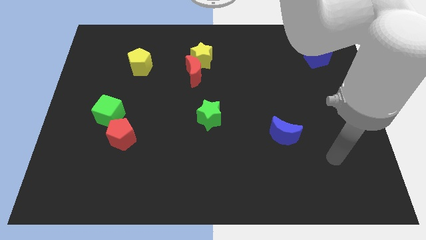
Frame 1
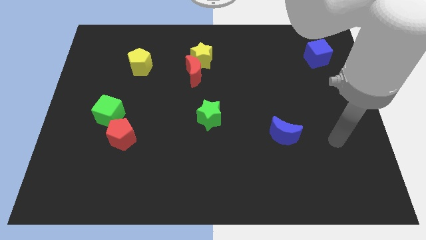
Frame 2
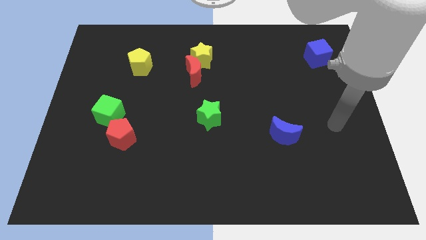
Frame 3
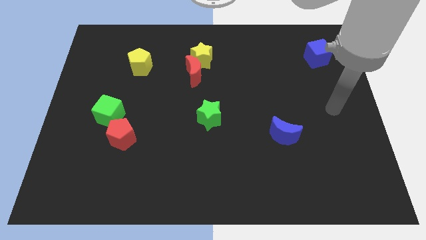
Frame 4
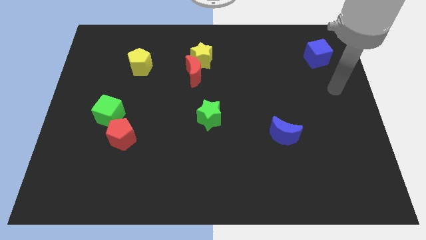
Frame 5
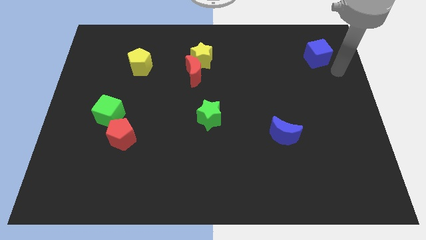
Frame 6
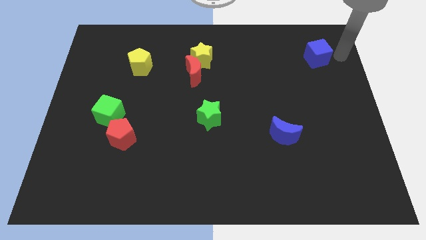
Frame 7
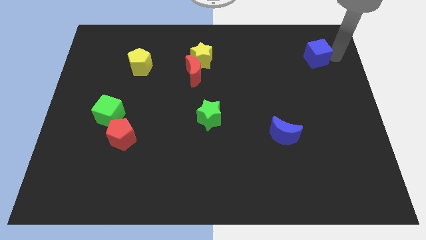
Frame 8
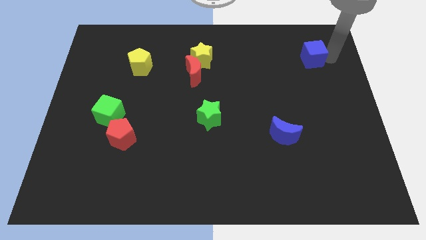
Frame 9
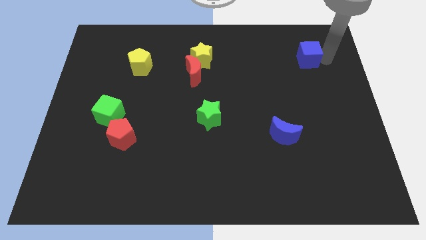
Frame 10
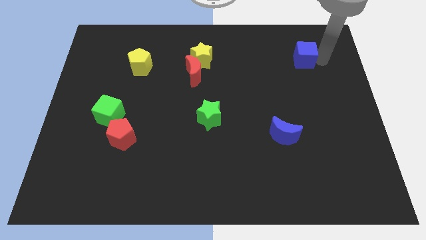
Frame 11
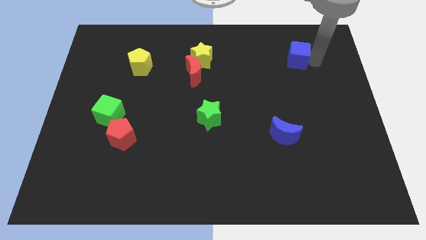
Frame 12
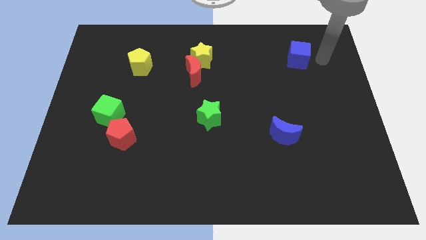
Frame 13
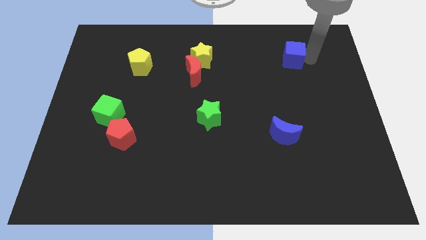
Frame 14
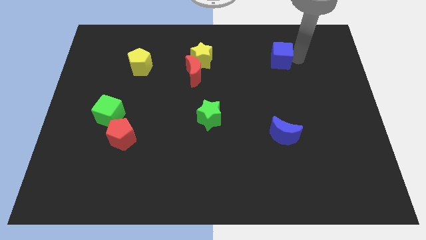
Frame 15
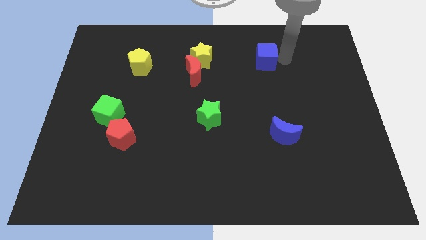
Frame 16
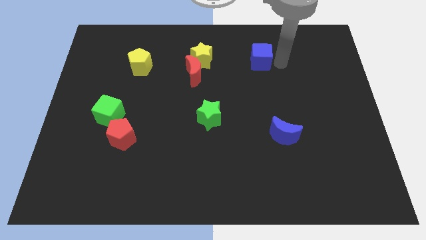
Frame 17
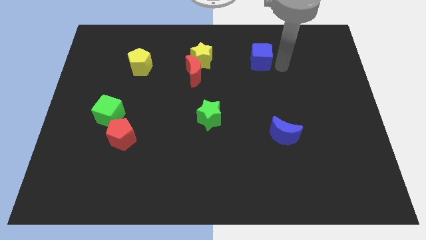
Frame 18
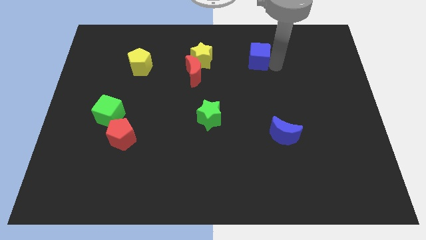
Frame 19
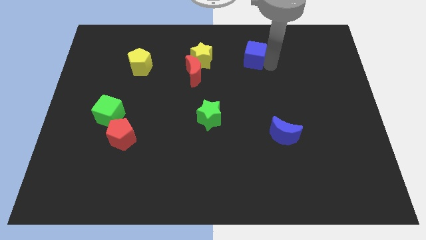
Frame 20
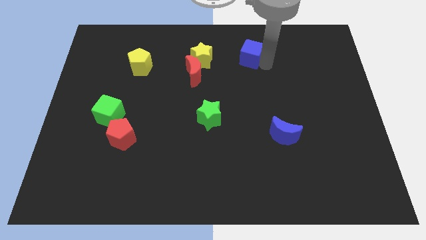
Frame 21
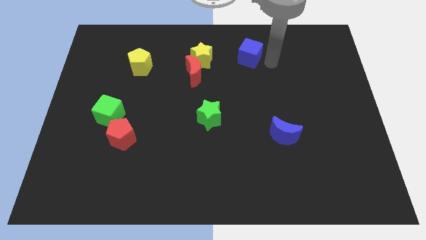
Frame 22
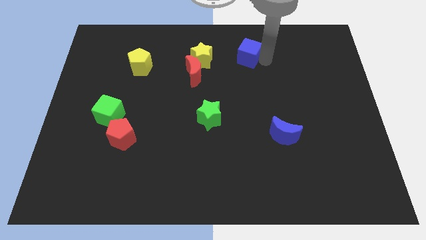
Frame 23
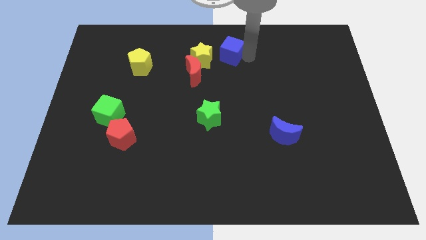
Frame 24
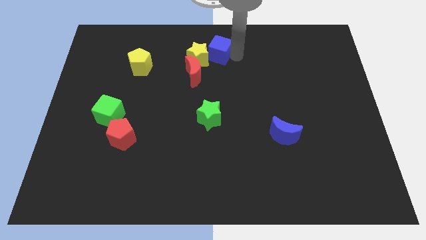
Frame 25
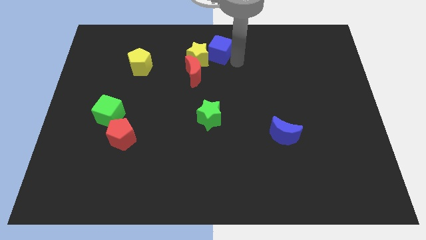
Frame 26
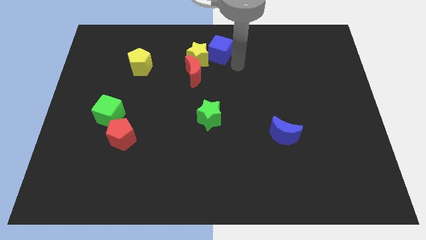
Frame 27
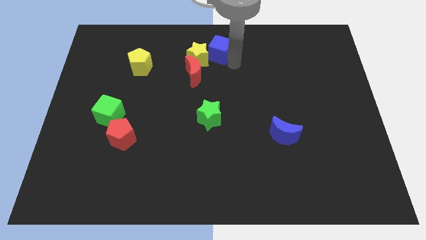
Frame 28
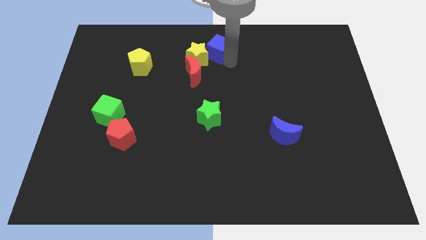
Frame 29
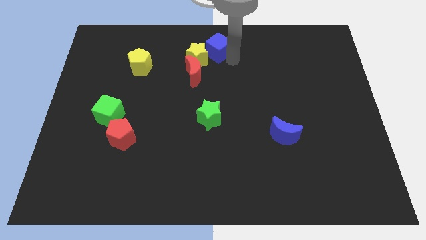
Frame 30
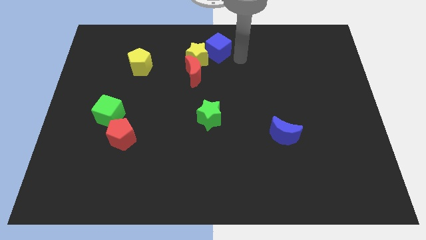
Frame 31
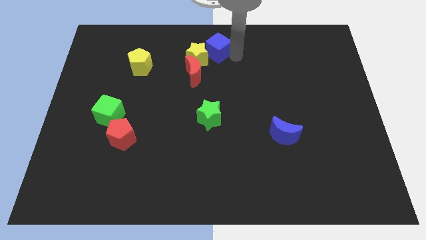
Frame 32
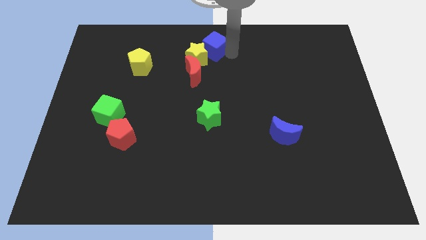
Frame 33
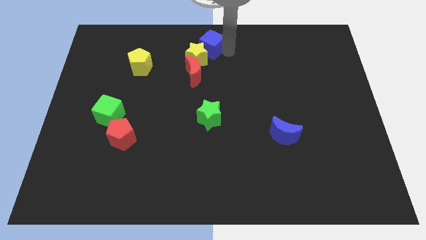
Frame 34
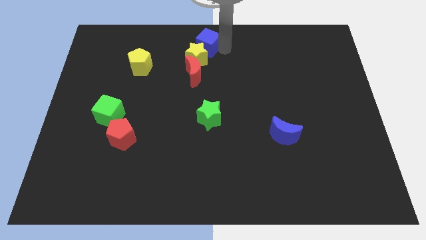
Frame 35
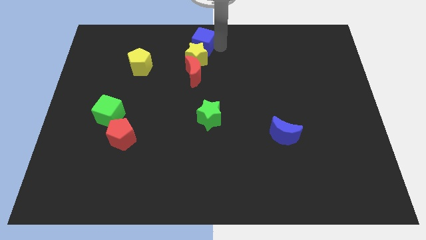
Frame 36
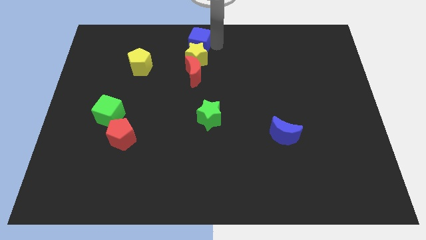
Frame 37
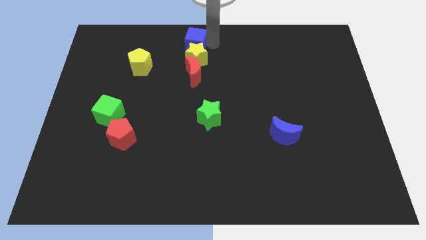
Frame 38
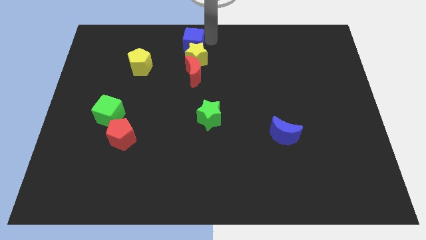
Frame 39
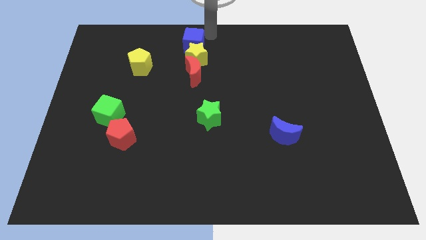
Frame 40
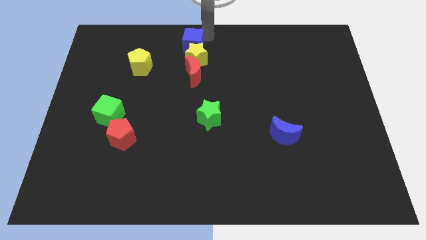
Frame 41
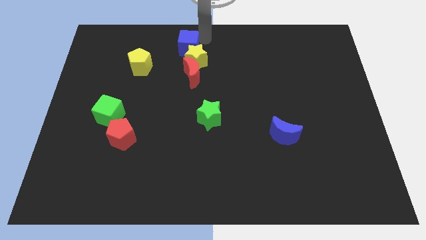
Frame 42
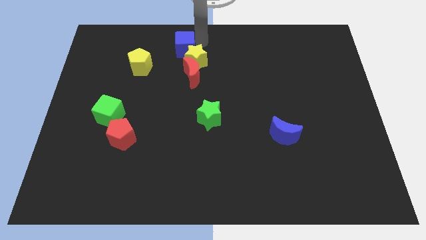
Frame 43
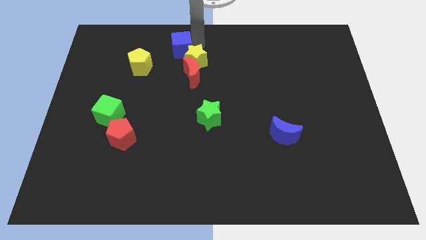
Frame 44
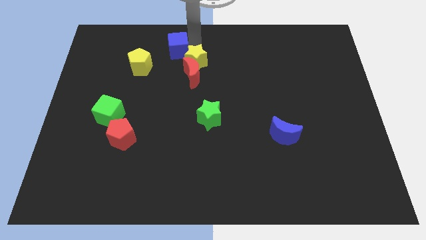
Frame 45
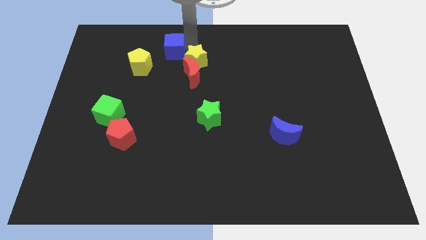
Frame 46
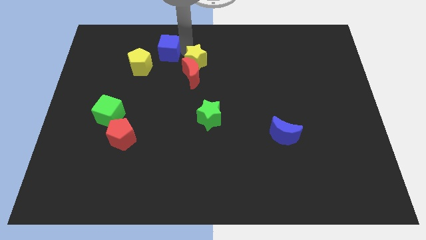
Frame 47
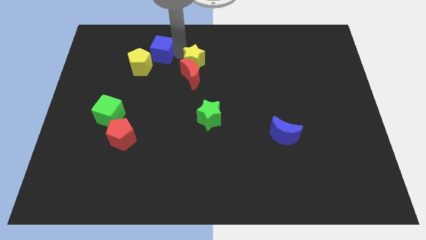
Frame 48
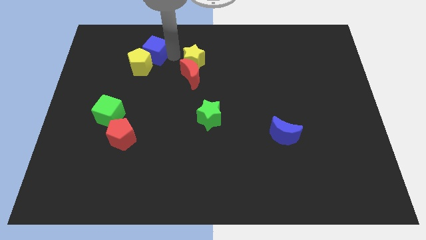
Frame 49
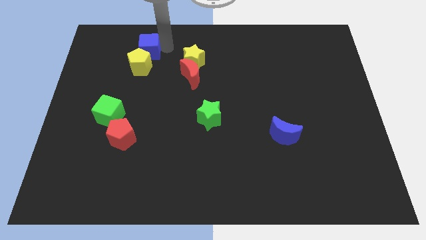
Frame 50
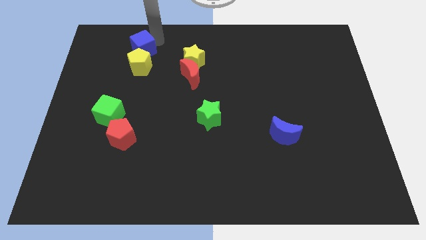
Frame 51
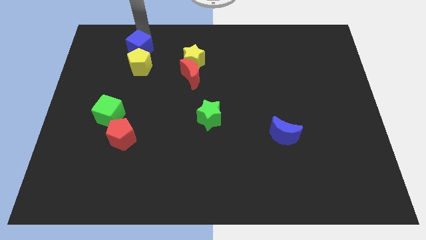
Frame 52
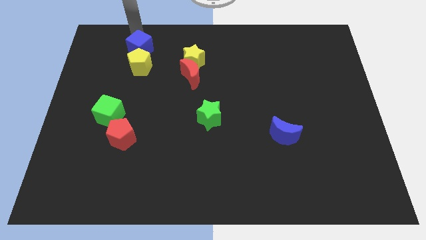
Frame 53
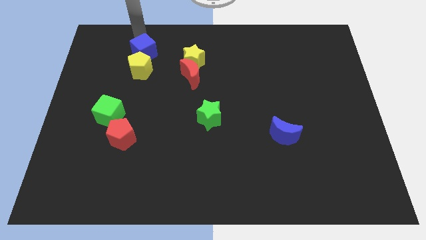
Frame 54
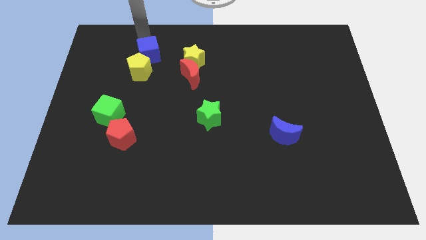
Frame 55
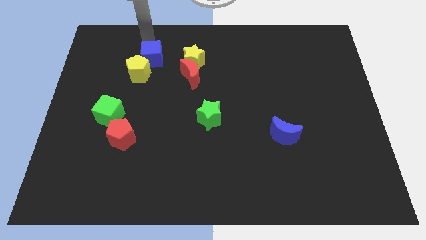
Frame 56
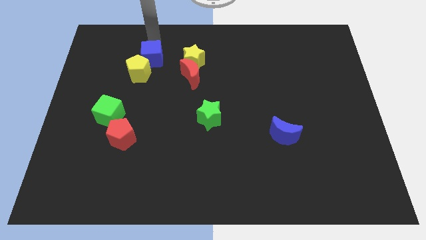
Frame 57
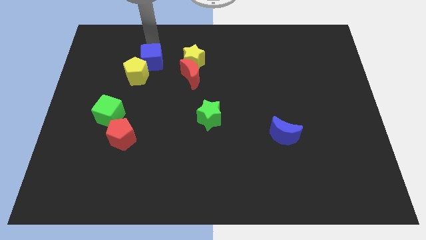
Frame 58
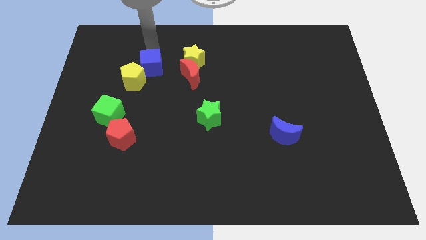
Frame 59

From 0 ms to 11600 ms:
push the blue cube just left of the red moon
